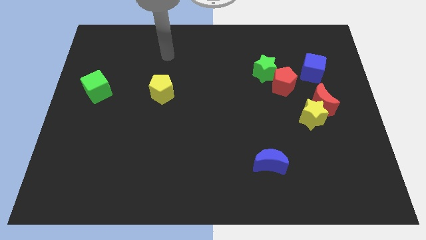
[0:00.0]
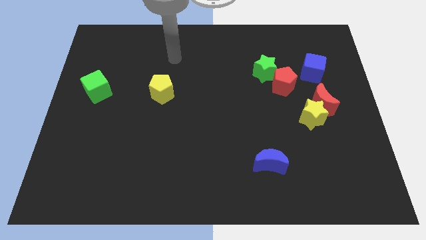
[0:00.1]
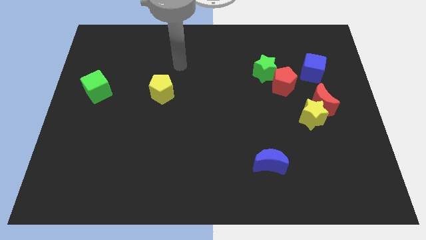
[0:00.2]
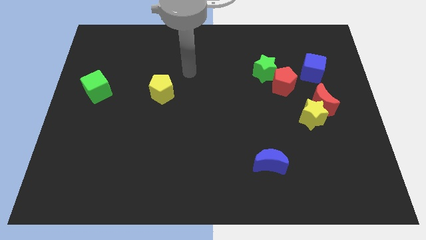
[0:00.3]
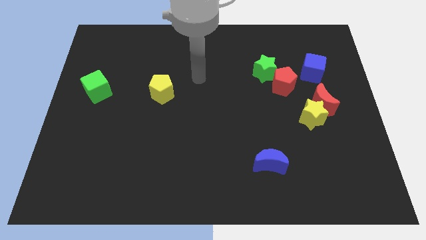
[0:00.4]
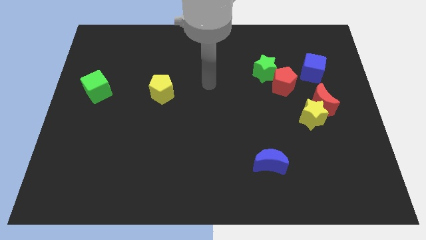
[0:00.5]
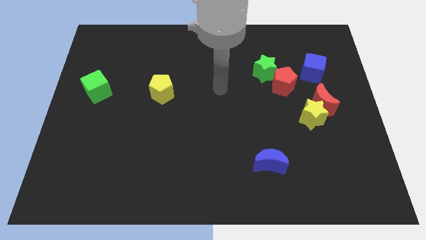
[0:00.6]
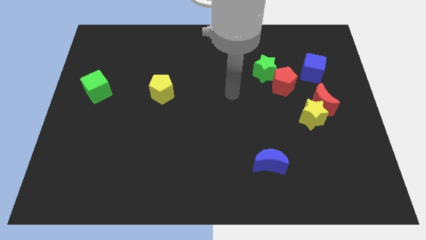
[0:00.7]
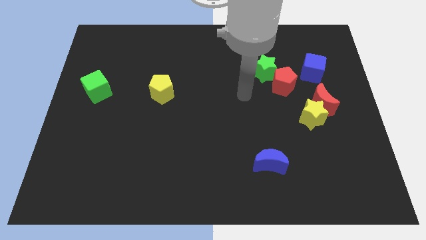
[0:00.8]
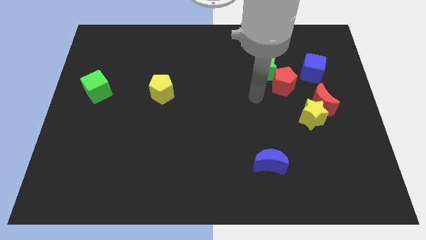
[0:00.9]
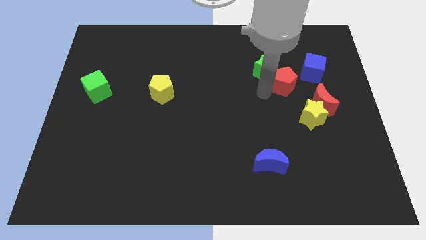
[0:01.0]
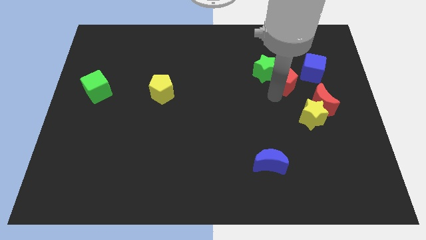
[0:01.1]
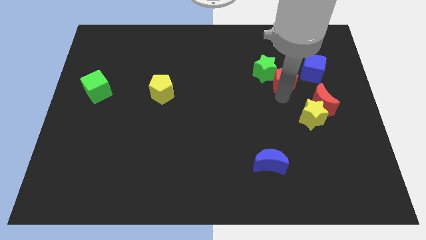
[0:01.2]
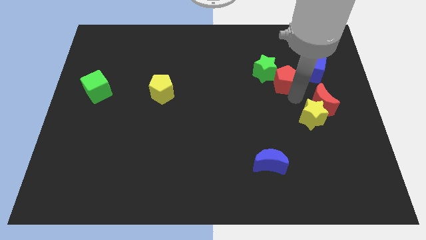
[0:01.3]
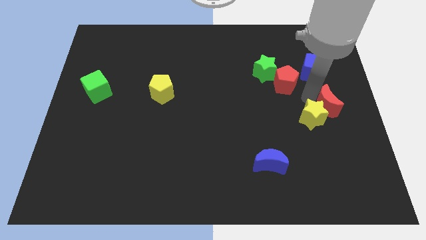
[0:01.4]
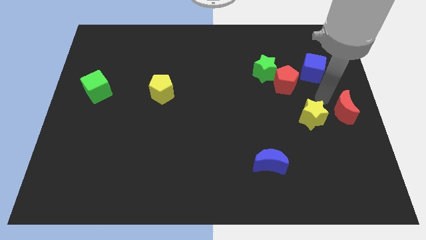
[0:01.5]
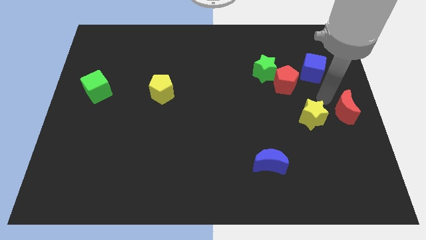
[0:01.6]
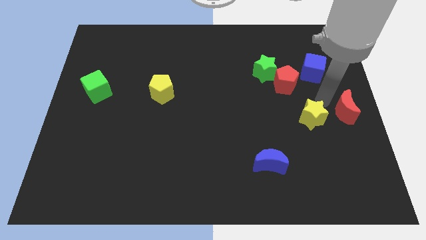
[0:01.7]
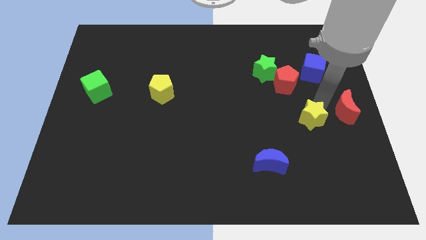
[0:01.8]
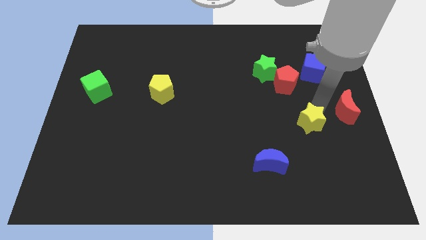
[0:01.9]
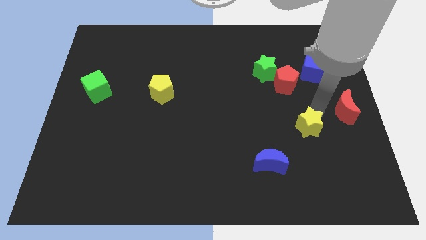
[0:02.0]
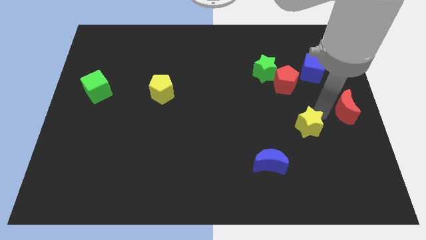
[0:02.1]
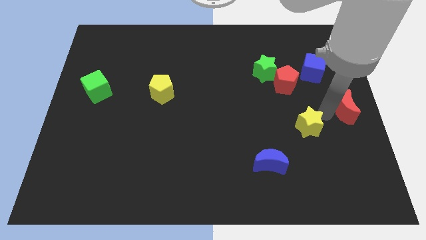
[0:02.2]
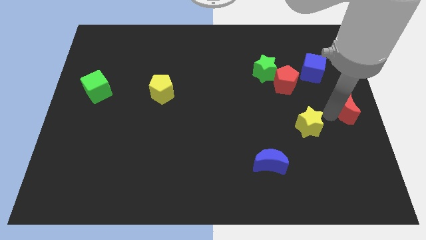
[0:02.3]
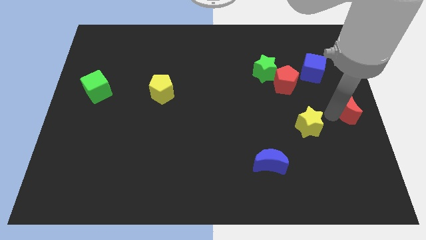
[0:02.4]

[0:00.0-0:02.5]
pull the yellow star apart from the red moon

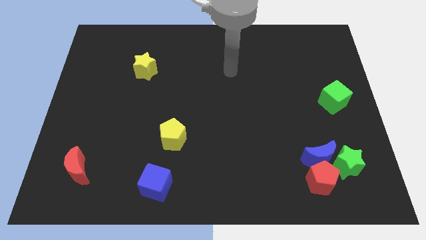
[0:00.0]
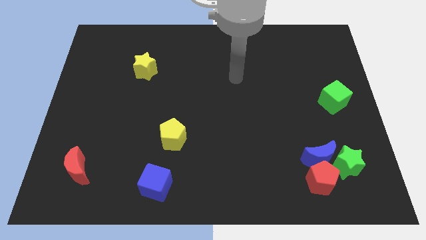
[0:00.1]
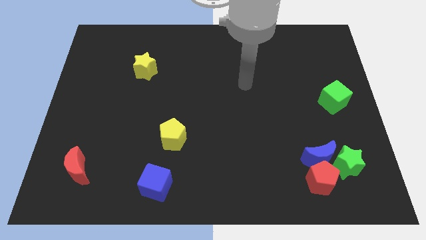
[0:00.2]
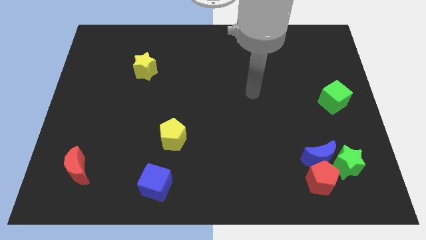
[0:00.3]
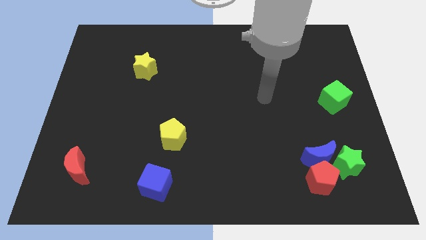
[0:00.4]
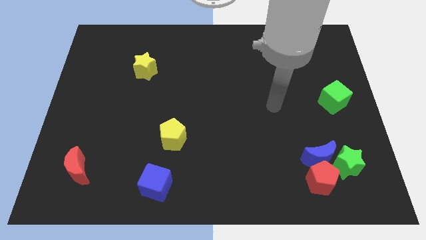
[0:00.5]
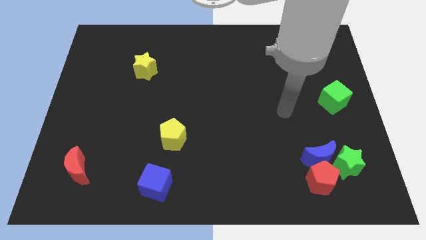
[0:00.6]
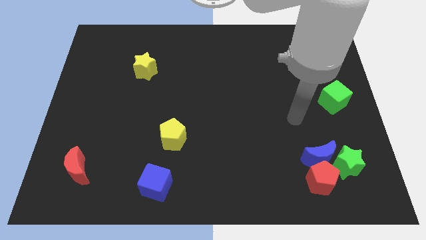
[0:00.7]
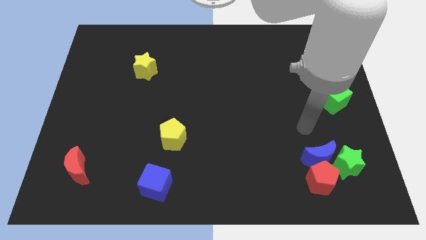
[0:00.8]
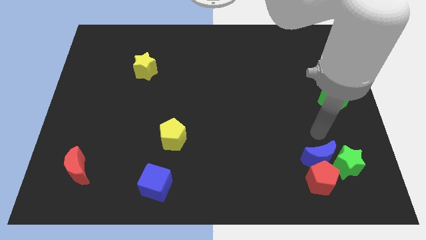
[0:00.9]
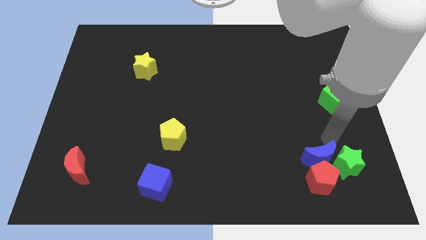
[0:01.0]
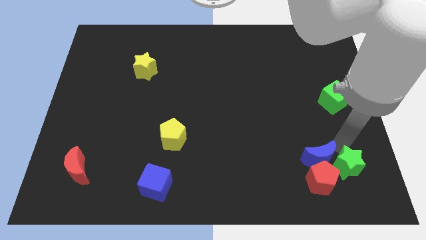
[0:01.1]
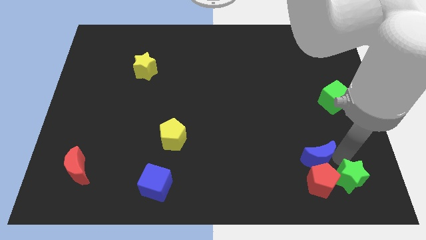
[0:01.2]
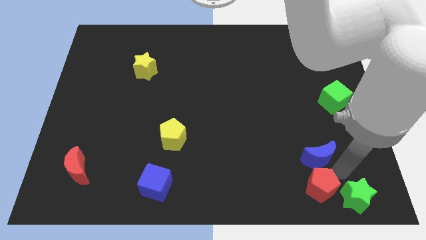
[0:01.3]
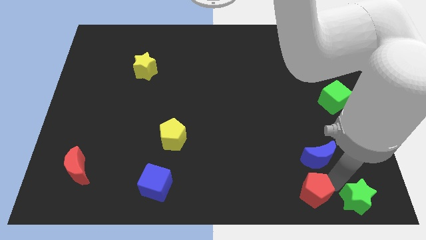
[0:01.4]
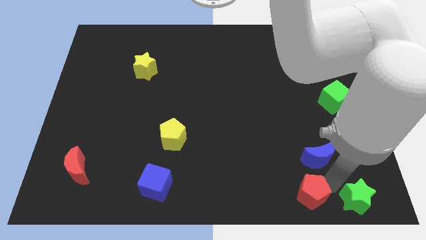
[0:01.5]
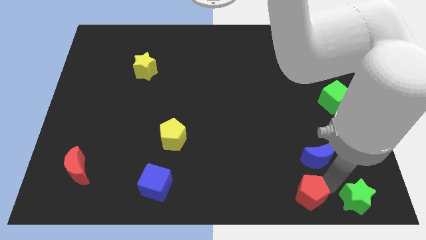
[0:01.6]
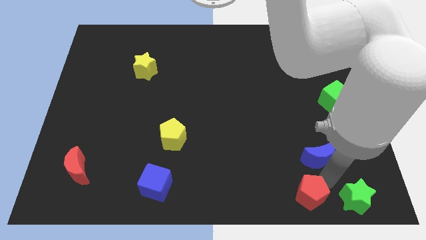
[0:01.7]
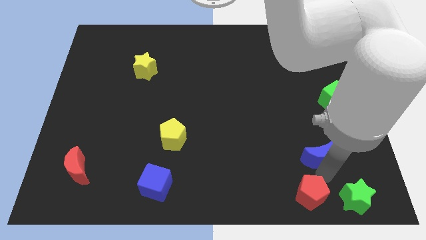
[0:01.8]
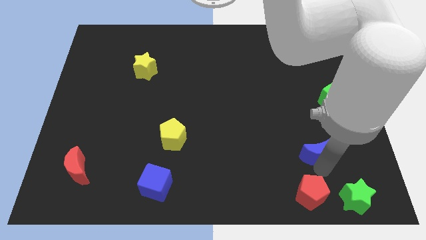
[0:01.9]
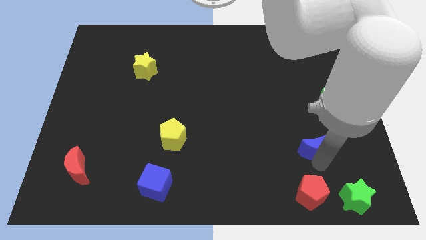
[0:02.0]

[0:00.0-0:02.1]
move the blue moon away from the red pentagon and green star

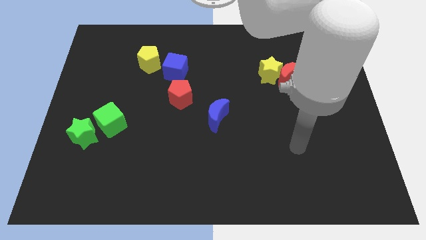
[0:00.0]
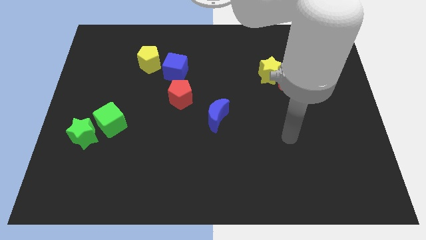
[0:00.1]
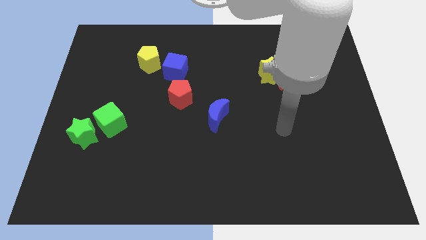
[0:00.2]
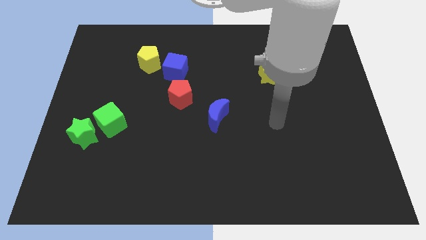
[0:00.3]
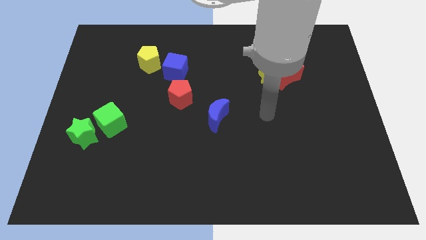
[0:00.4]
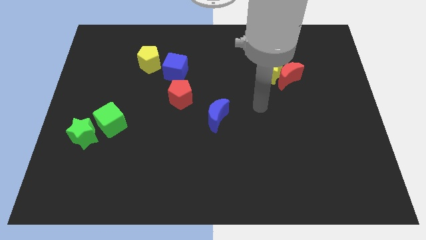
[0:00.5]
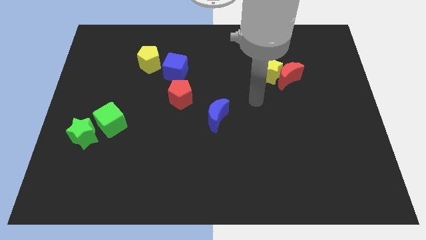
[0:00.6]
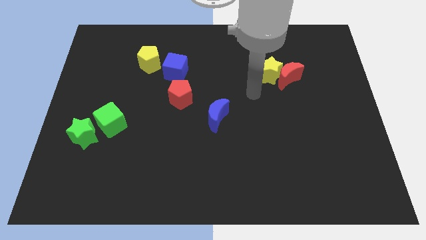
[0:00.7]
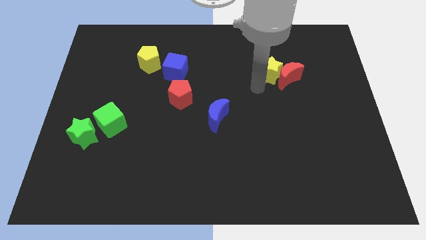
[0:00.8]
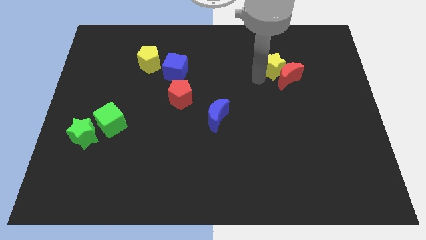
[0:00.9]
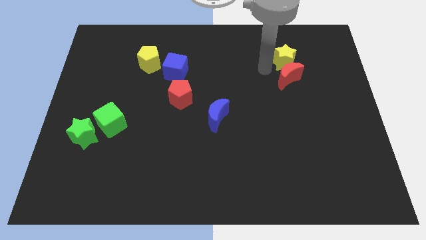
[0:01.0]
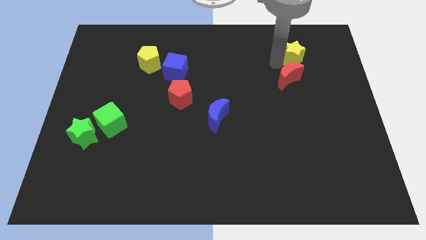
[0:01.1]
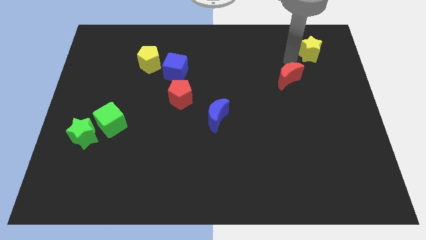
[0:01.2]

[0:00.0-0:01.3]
pull the red moon apart from the yellow star

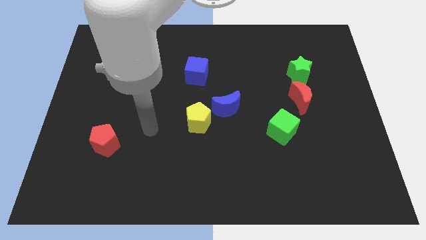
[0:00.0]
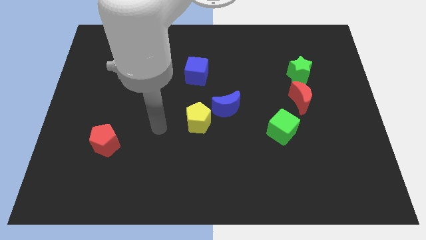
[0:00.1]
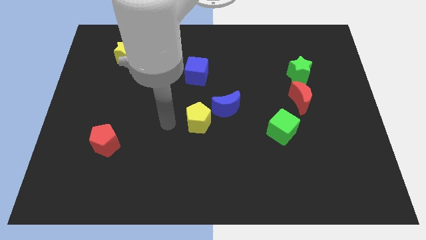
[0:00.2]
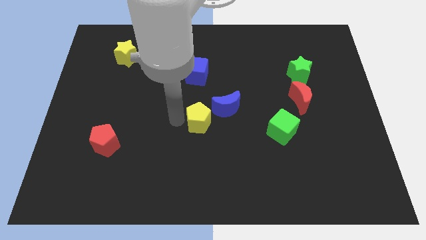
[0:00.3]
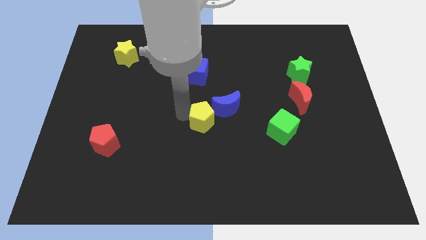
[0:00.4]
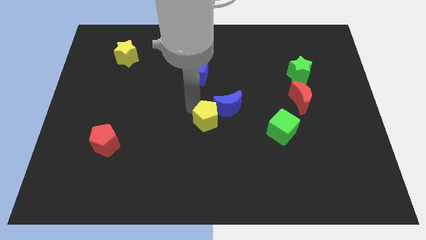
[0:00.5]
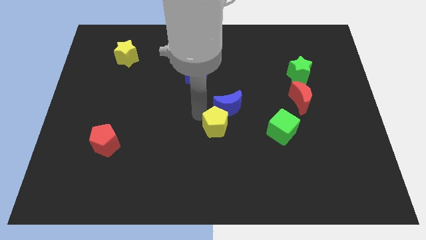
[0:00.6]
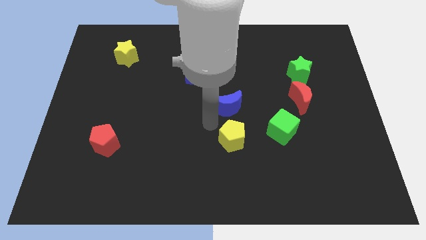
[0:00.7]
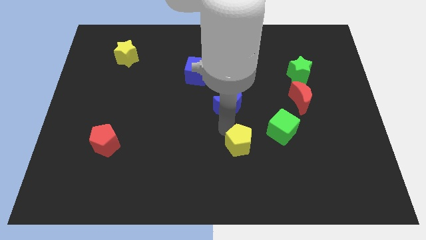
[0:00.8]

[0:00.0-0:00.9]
separate the blue moon from the yellow pentagon

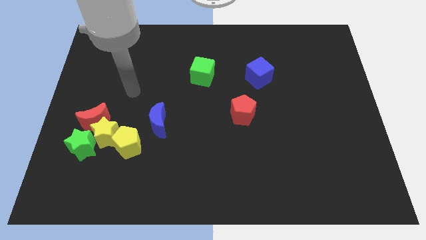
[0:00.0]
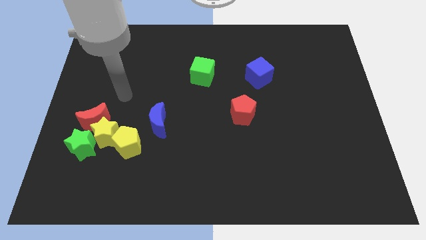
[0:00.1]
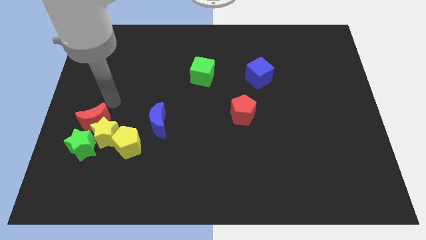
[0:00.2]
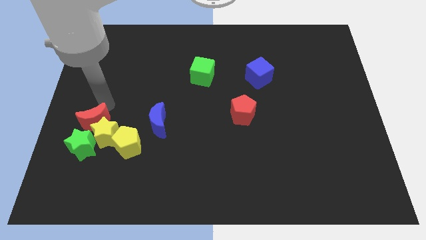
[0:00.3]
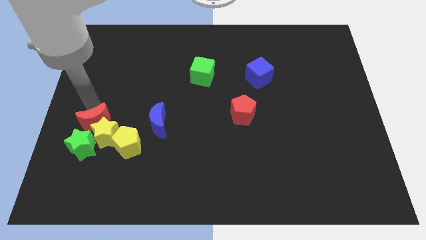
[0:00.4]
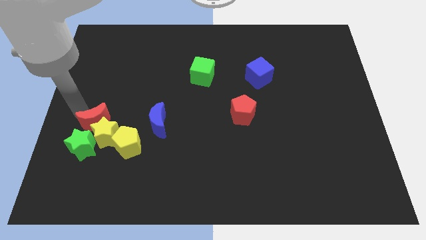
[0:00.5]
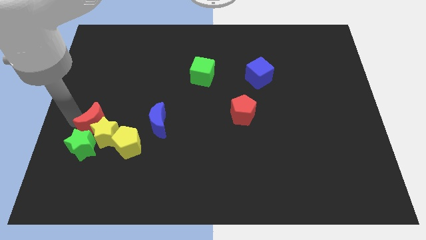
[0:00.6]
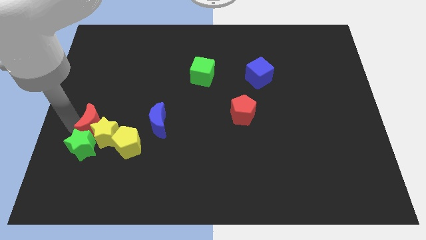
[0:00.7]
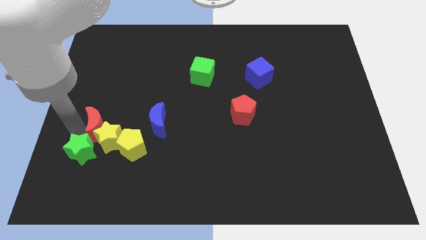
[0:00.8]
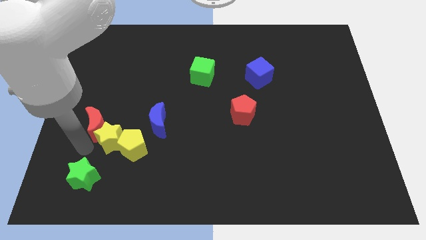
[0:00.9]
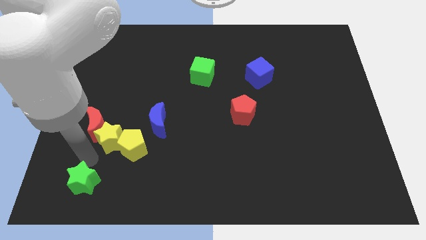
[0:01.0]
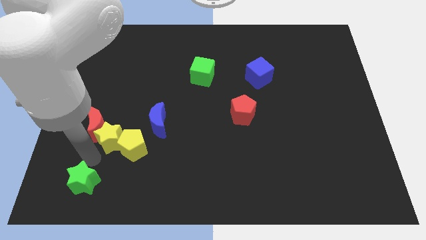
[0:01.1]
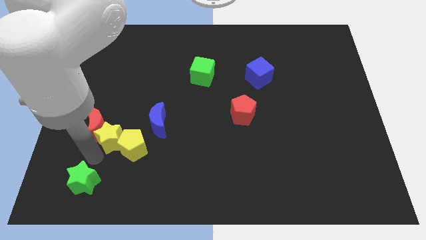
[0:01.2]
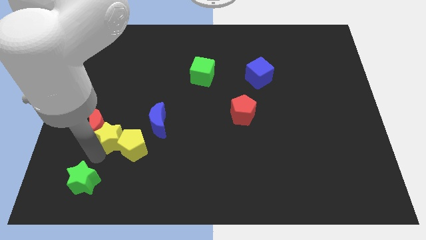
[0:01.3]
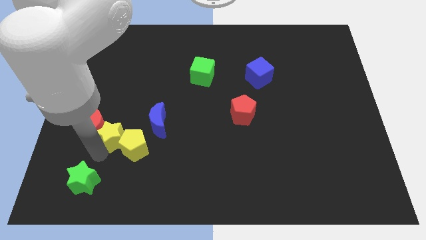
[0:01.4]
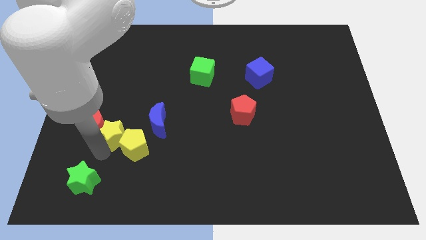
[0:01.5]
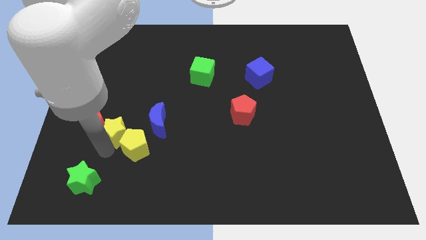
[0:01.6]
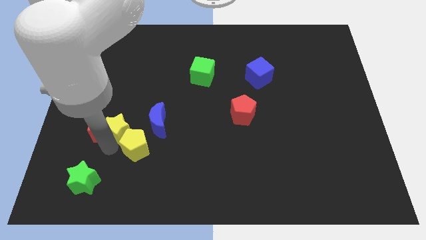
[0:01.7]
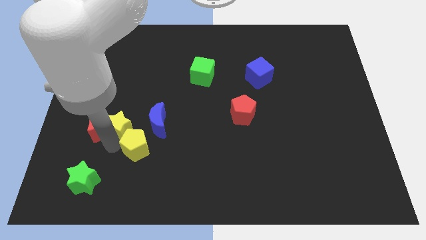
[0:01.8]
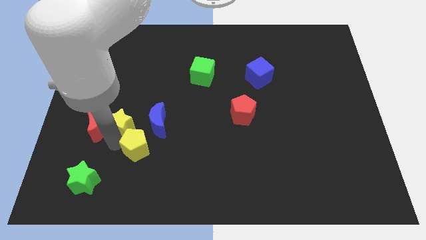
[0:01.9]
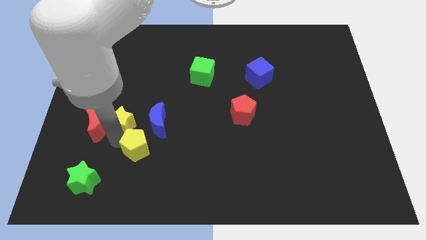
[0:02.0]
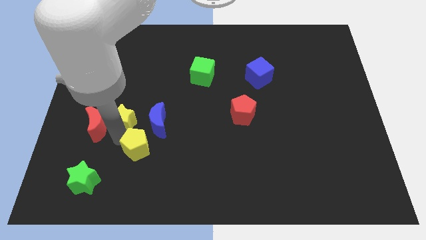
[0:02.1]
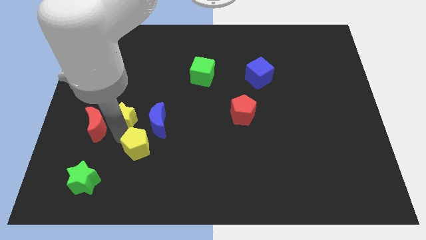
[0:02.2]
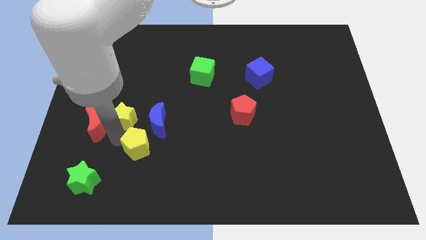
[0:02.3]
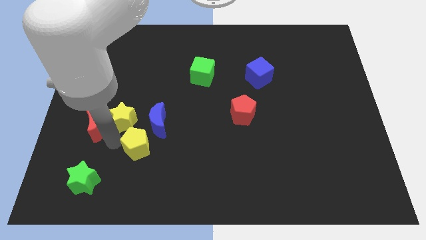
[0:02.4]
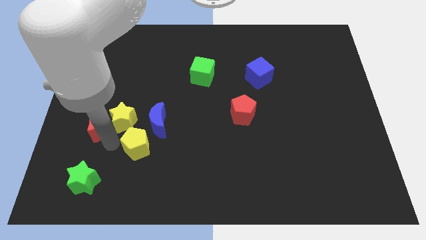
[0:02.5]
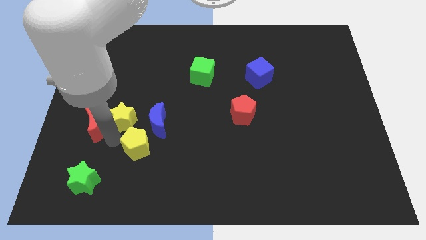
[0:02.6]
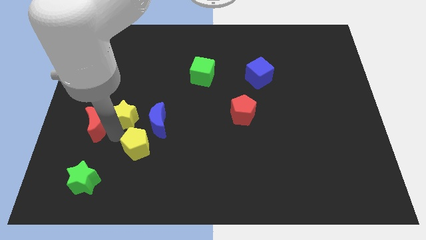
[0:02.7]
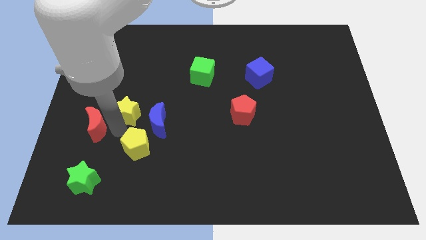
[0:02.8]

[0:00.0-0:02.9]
move the yellow star away from the clump
